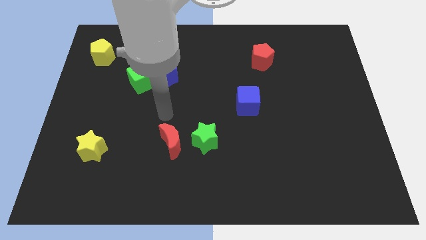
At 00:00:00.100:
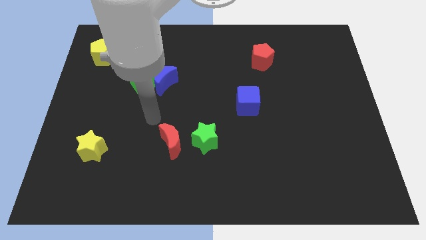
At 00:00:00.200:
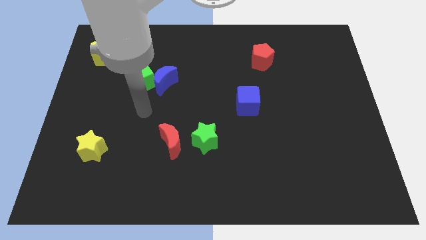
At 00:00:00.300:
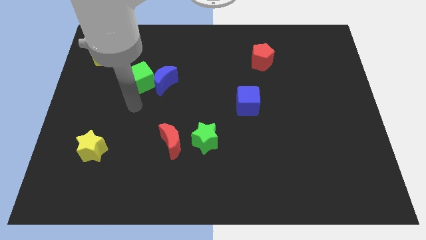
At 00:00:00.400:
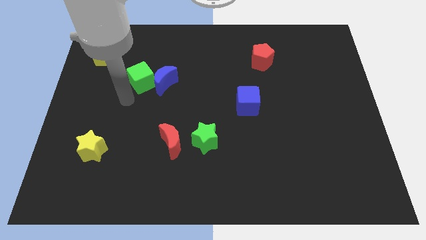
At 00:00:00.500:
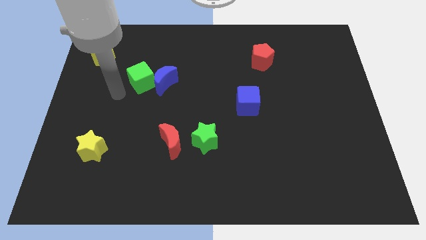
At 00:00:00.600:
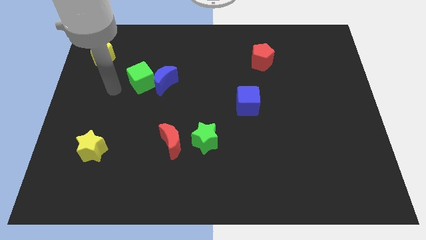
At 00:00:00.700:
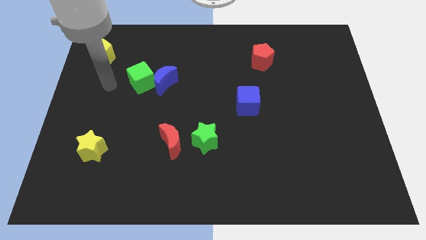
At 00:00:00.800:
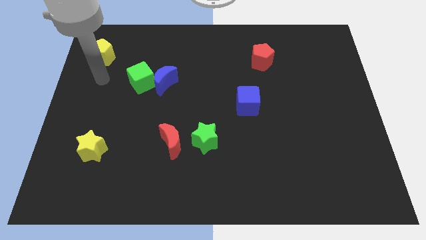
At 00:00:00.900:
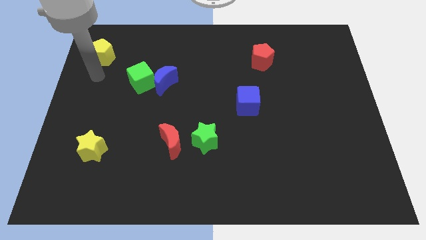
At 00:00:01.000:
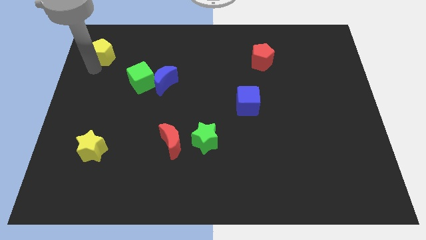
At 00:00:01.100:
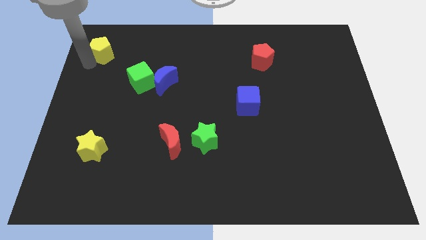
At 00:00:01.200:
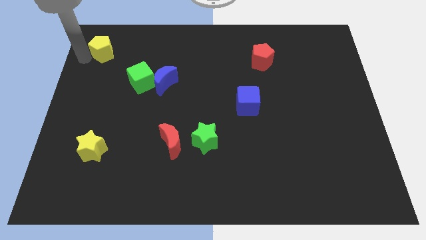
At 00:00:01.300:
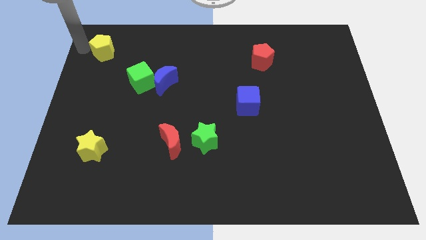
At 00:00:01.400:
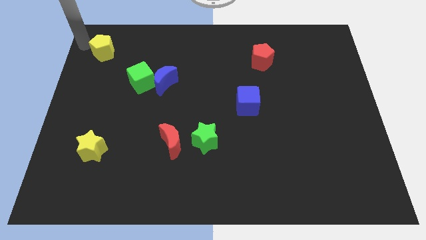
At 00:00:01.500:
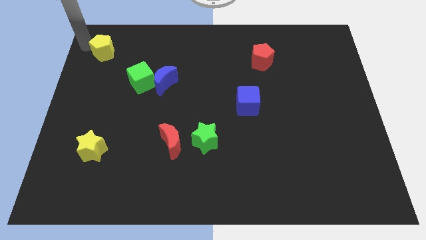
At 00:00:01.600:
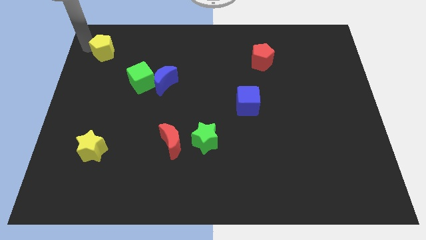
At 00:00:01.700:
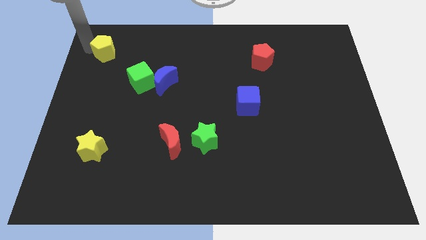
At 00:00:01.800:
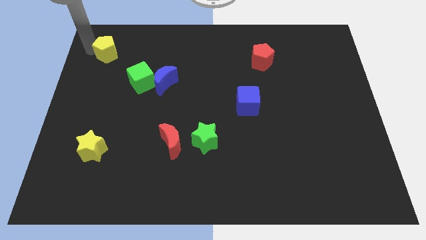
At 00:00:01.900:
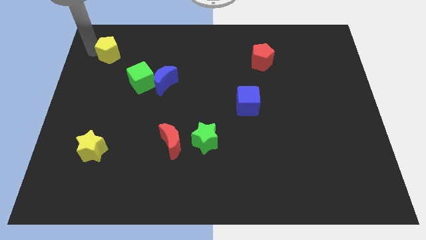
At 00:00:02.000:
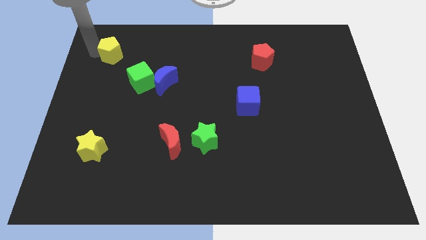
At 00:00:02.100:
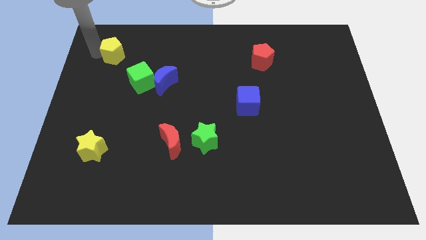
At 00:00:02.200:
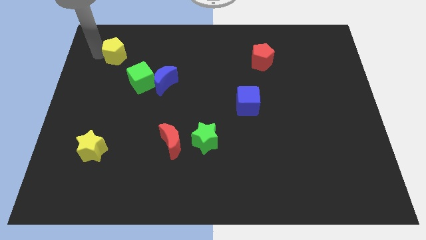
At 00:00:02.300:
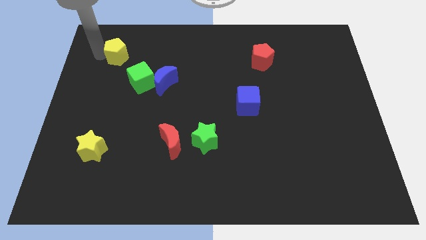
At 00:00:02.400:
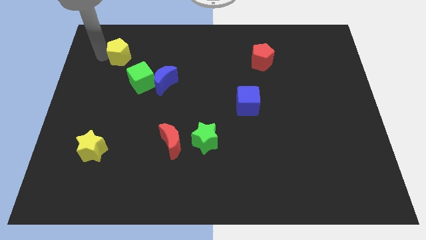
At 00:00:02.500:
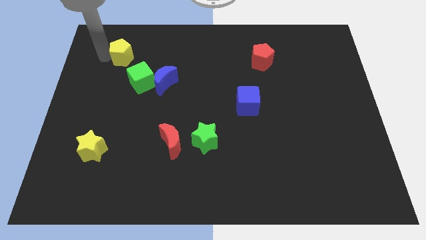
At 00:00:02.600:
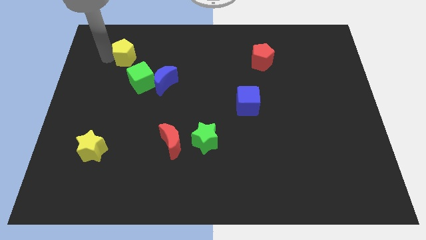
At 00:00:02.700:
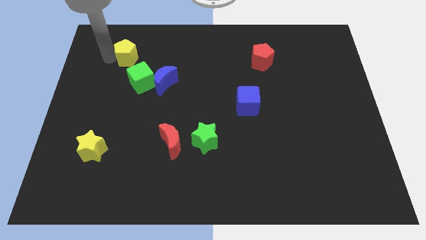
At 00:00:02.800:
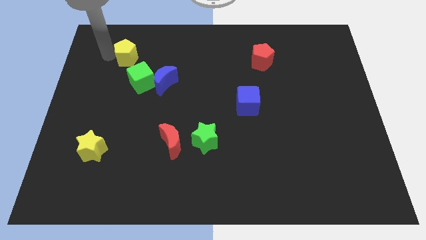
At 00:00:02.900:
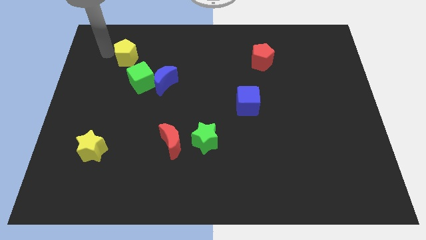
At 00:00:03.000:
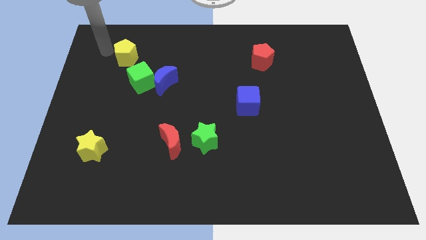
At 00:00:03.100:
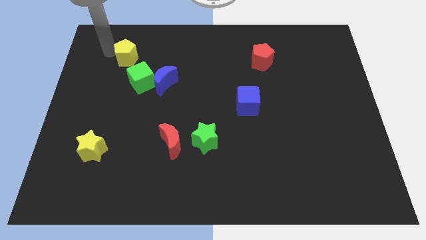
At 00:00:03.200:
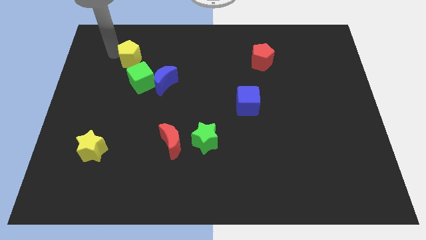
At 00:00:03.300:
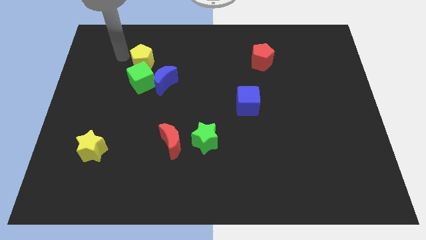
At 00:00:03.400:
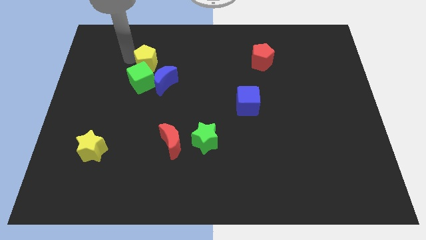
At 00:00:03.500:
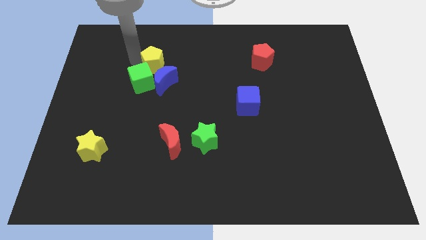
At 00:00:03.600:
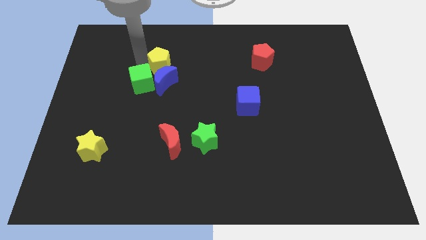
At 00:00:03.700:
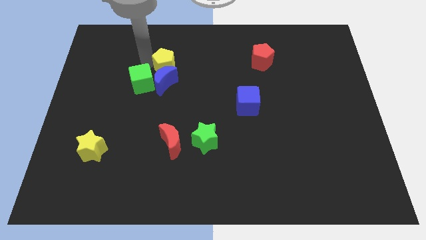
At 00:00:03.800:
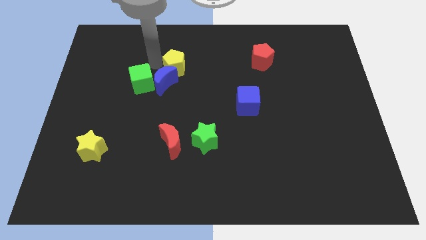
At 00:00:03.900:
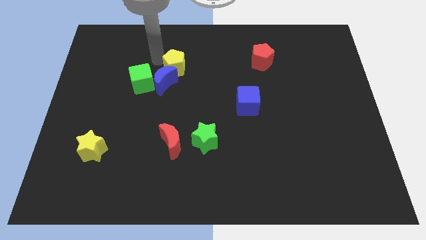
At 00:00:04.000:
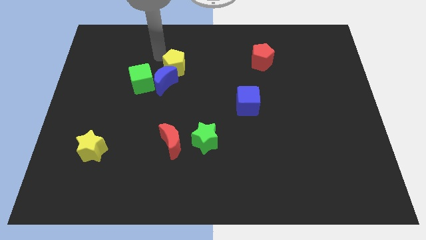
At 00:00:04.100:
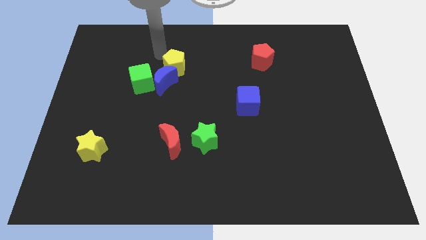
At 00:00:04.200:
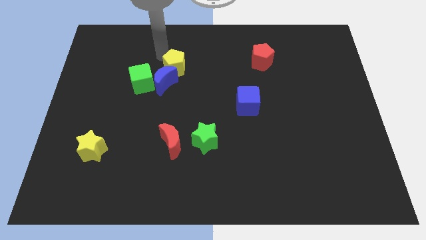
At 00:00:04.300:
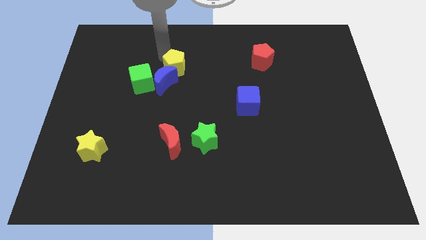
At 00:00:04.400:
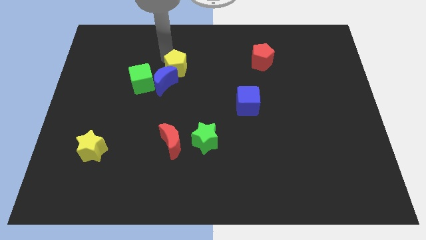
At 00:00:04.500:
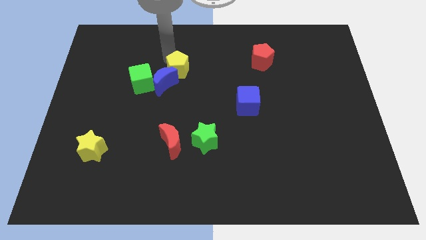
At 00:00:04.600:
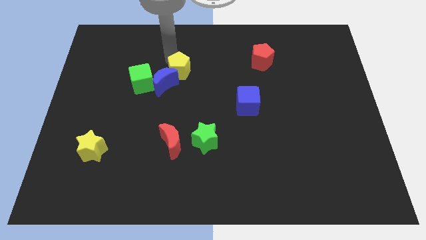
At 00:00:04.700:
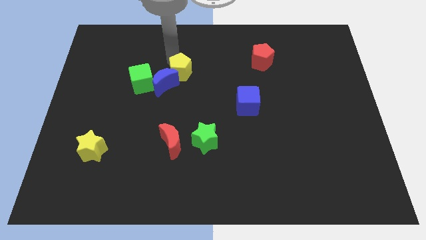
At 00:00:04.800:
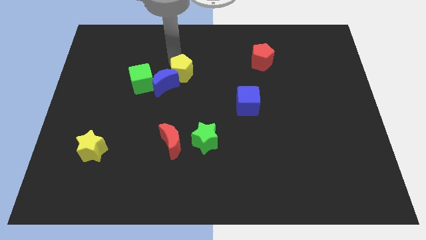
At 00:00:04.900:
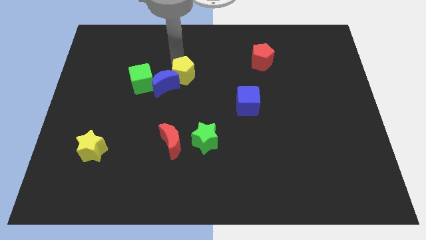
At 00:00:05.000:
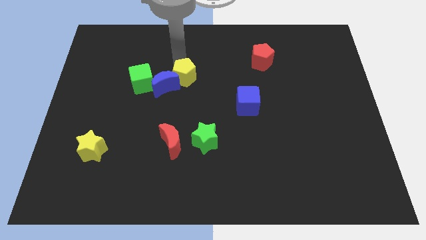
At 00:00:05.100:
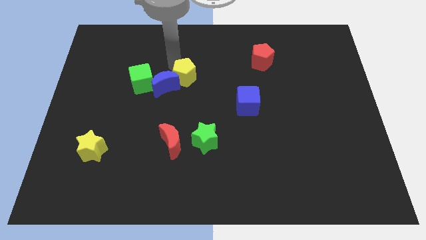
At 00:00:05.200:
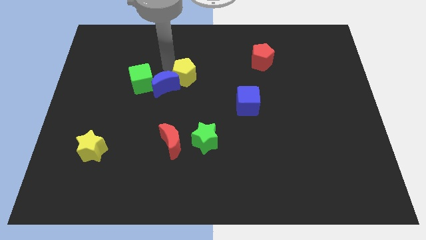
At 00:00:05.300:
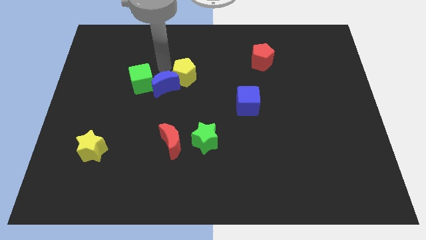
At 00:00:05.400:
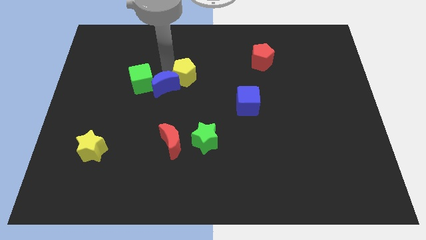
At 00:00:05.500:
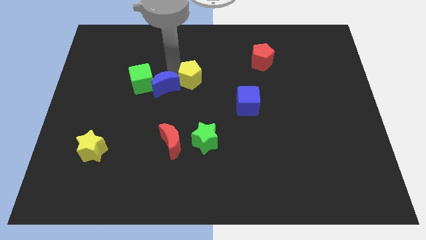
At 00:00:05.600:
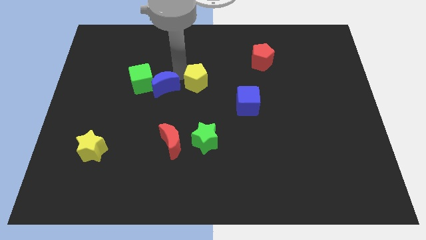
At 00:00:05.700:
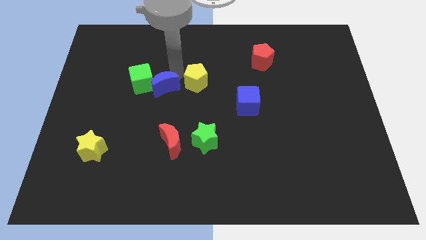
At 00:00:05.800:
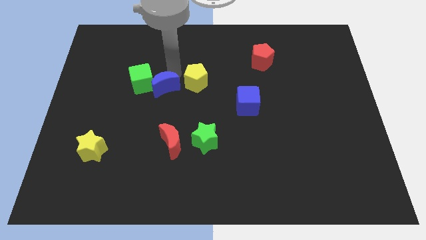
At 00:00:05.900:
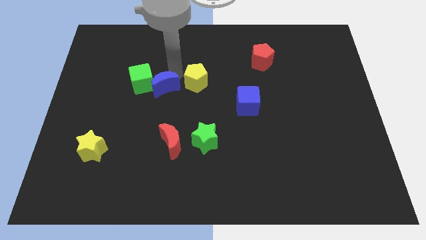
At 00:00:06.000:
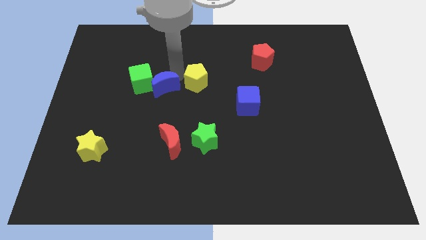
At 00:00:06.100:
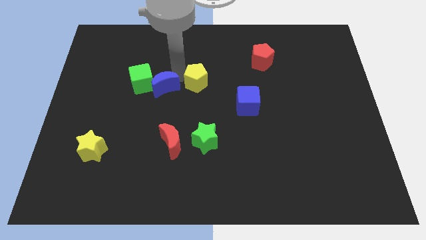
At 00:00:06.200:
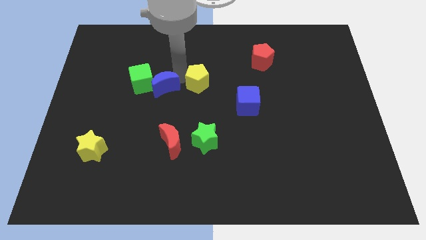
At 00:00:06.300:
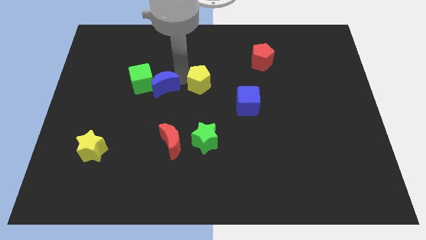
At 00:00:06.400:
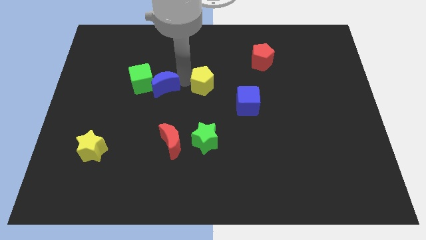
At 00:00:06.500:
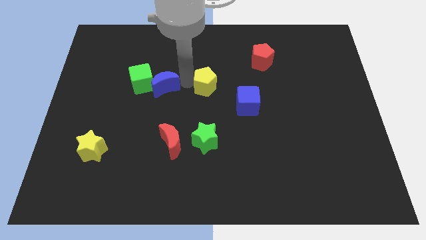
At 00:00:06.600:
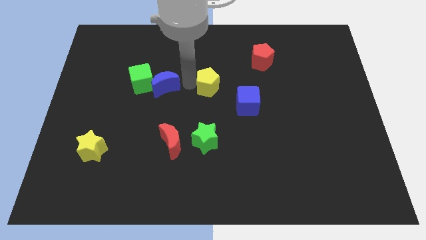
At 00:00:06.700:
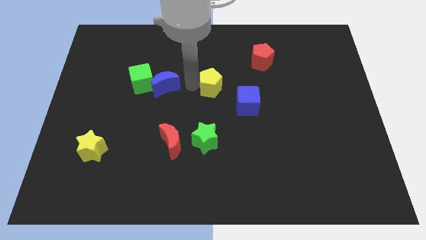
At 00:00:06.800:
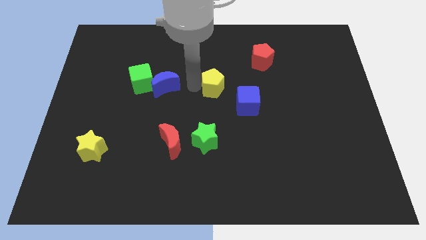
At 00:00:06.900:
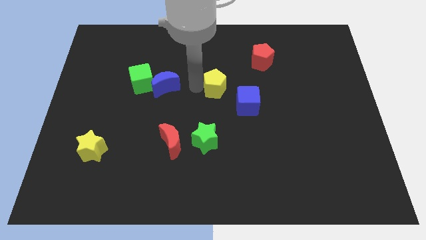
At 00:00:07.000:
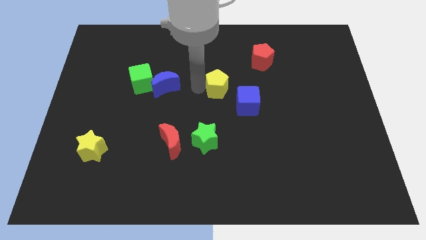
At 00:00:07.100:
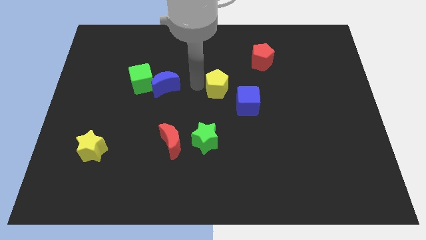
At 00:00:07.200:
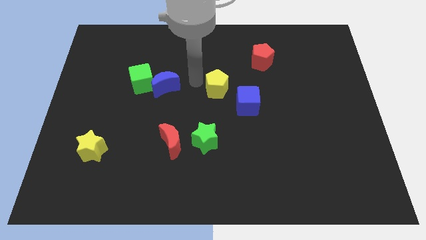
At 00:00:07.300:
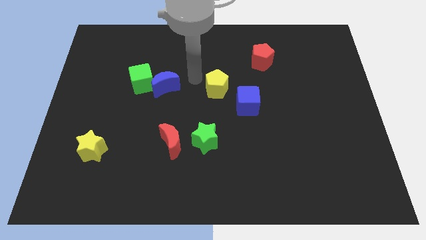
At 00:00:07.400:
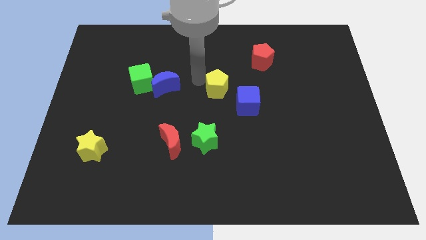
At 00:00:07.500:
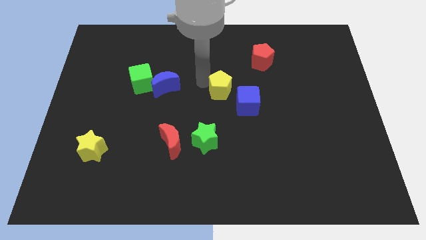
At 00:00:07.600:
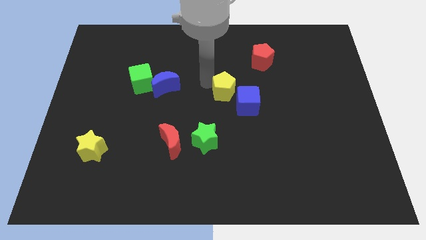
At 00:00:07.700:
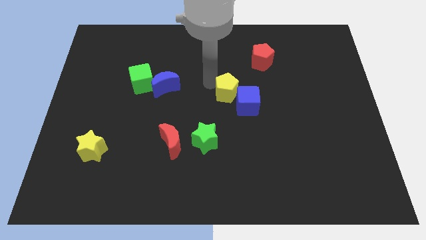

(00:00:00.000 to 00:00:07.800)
slide the yellow pentagon close to the blue cube
